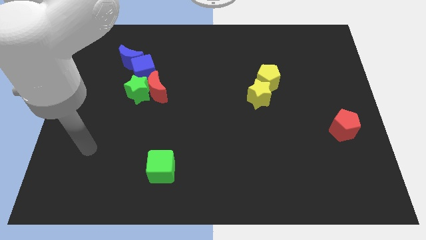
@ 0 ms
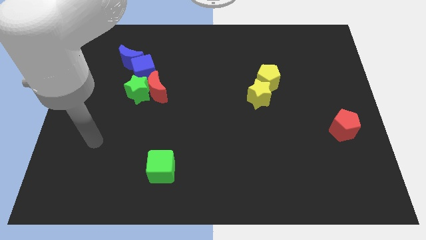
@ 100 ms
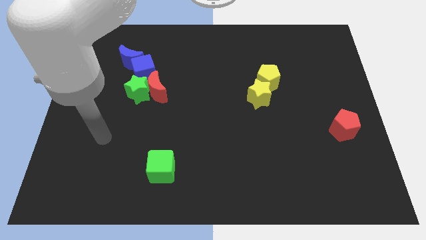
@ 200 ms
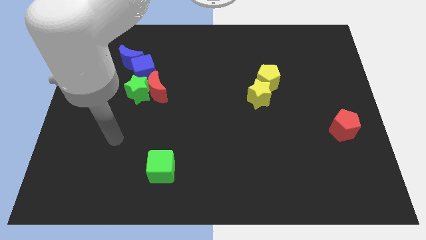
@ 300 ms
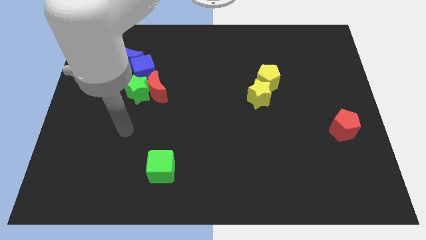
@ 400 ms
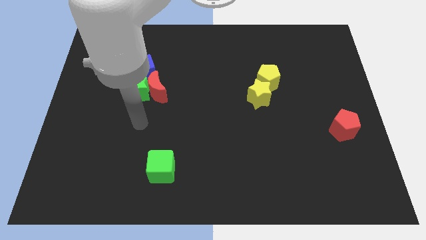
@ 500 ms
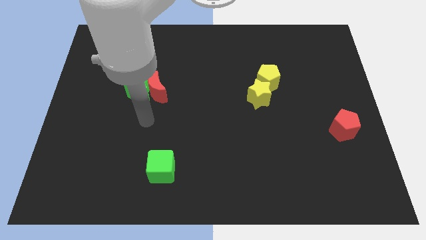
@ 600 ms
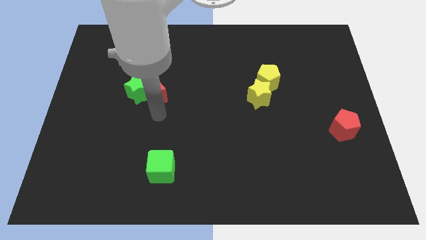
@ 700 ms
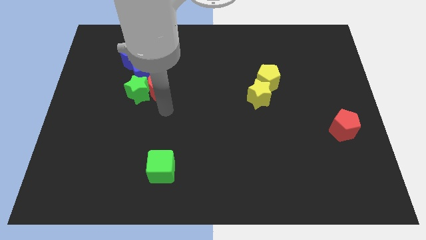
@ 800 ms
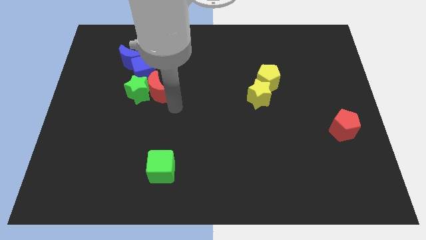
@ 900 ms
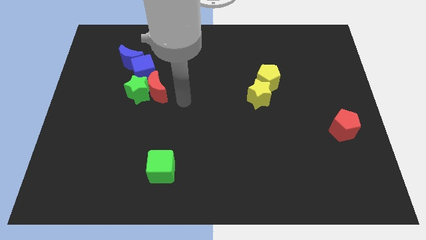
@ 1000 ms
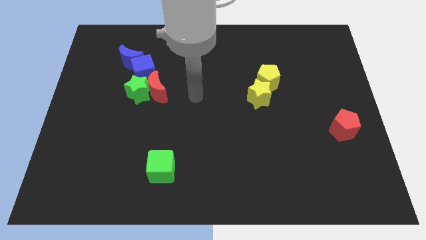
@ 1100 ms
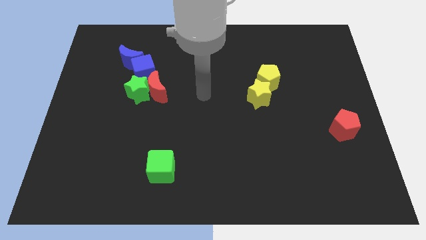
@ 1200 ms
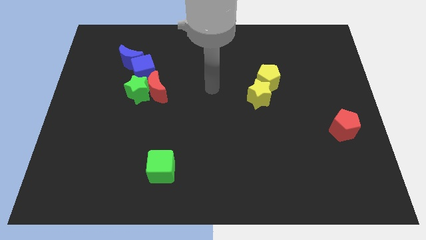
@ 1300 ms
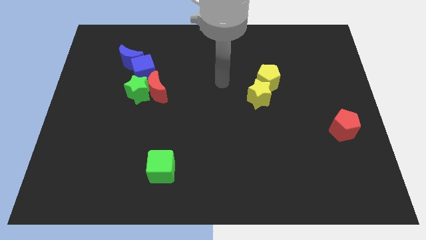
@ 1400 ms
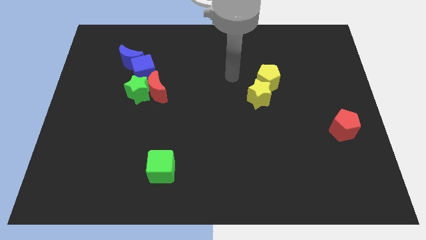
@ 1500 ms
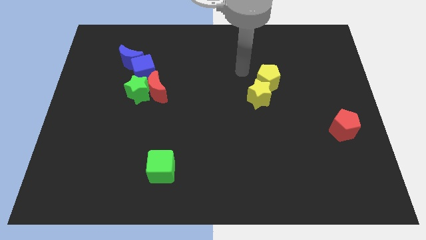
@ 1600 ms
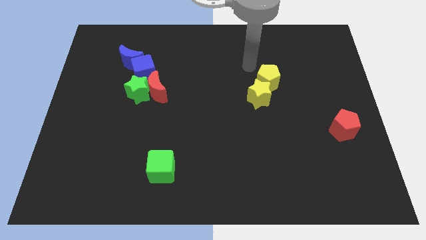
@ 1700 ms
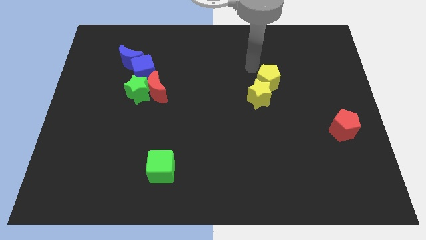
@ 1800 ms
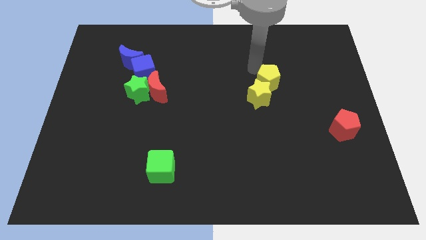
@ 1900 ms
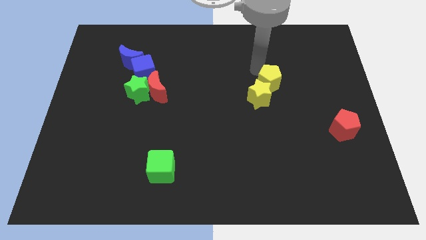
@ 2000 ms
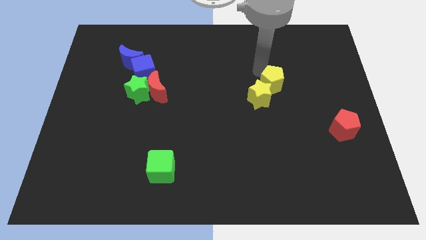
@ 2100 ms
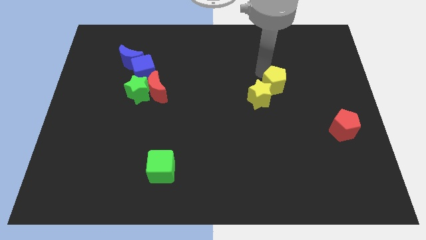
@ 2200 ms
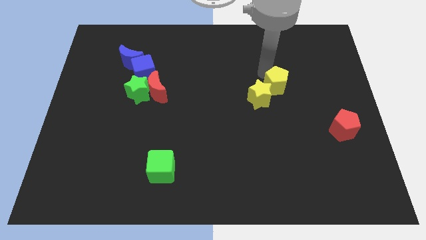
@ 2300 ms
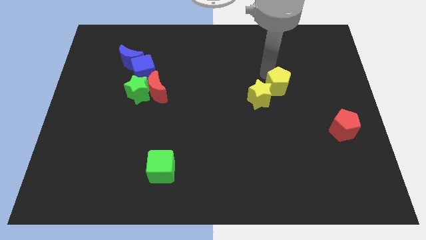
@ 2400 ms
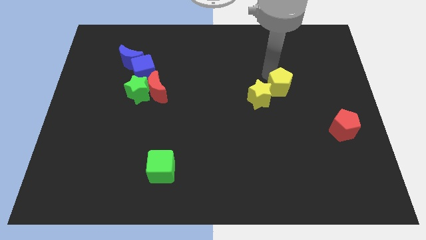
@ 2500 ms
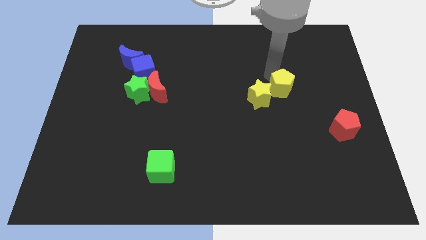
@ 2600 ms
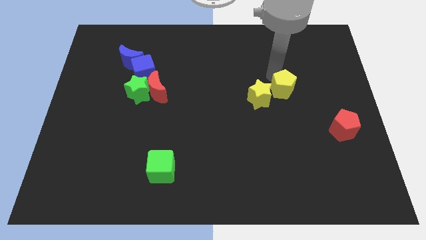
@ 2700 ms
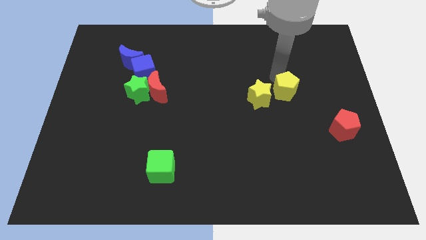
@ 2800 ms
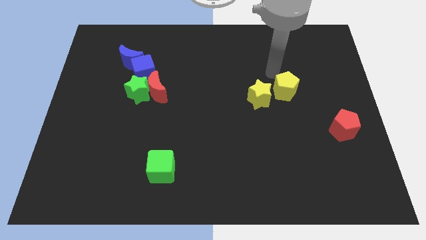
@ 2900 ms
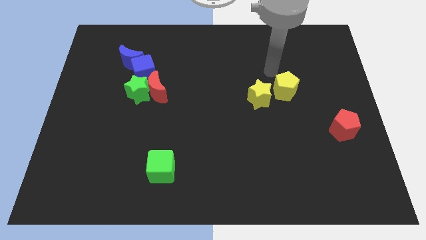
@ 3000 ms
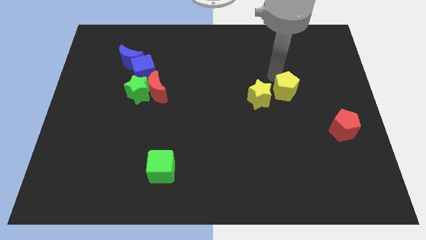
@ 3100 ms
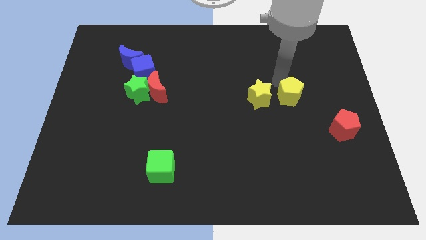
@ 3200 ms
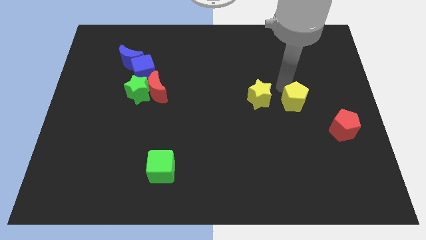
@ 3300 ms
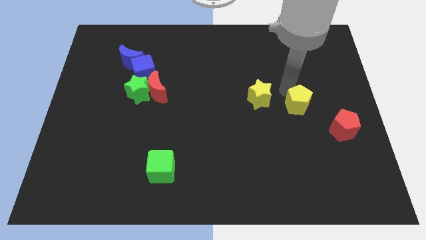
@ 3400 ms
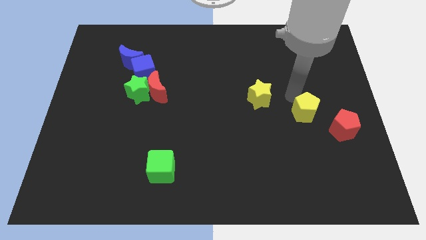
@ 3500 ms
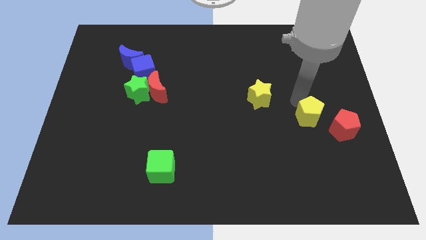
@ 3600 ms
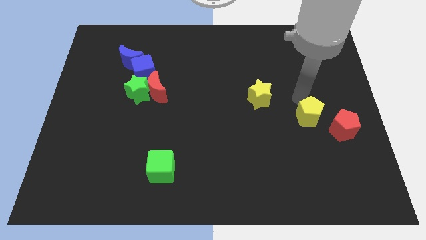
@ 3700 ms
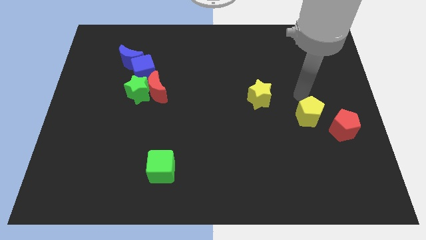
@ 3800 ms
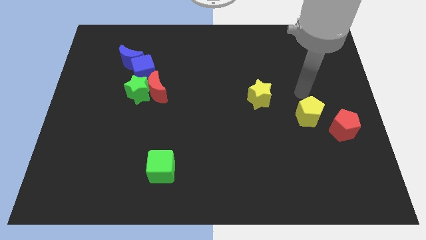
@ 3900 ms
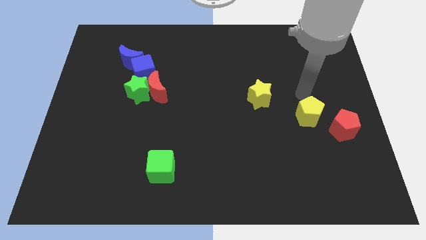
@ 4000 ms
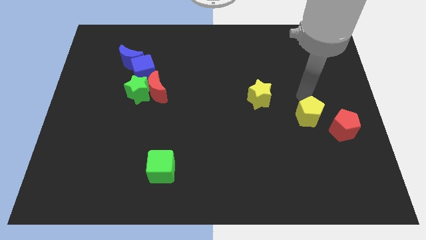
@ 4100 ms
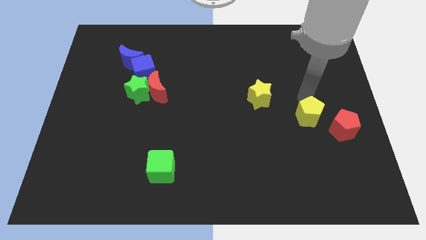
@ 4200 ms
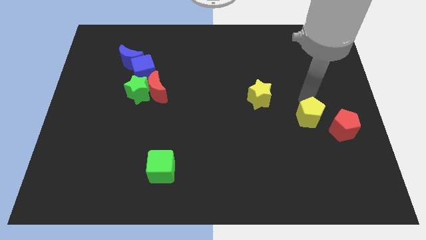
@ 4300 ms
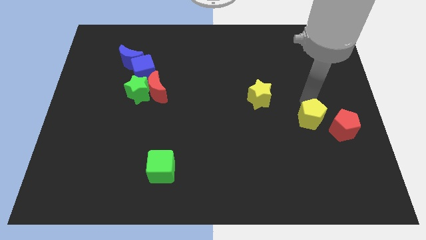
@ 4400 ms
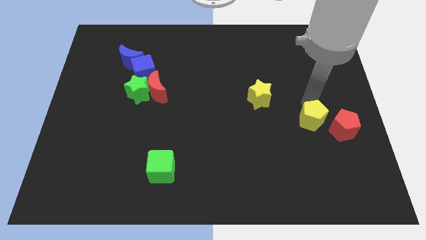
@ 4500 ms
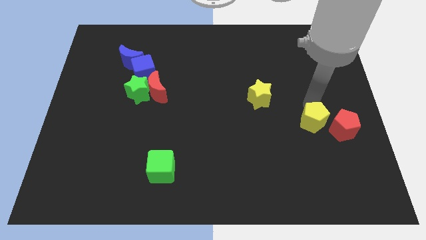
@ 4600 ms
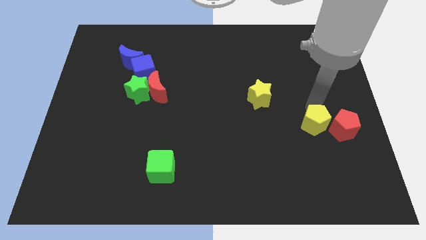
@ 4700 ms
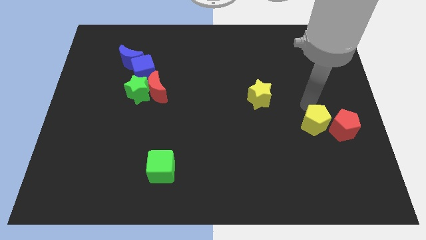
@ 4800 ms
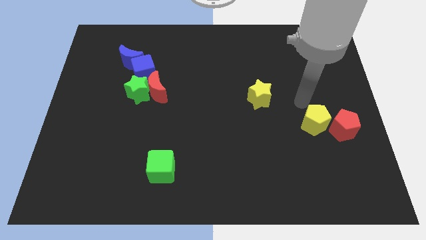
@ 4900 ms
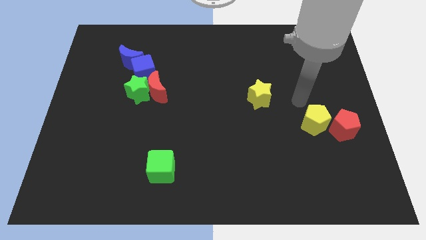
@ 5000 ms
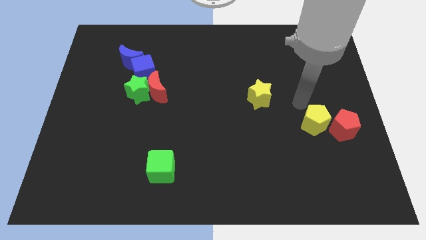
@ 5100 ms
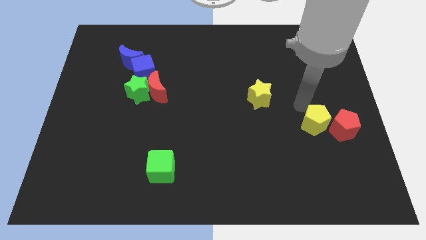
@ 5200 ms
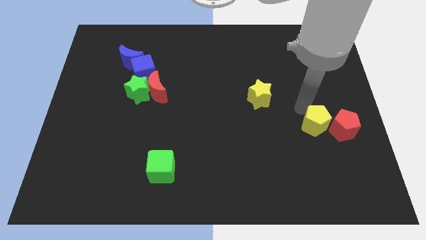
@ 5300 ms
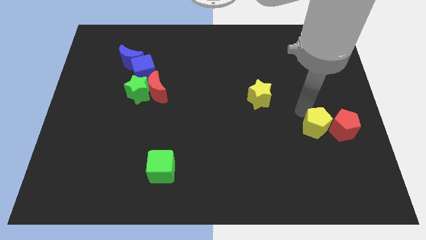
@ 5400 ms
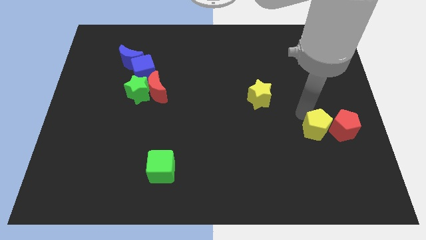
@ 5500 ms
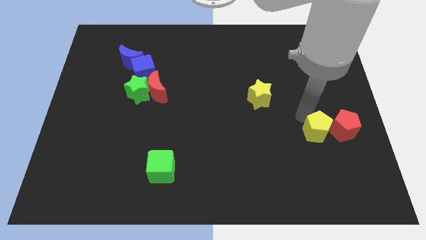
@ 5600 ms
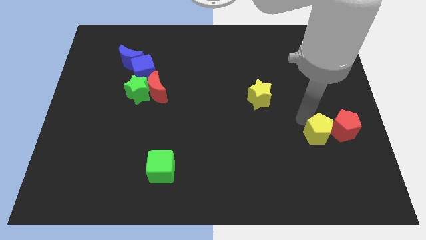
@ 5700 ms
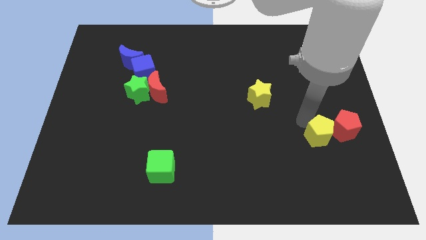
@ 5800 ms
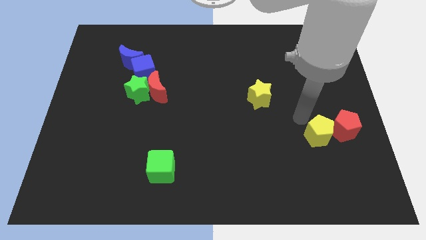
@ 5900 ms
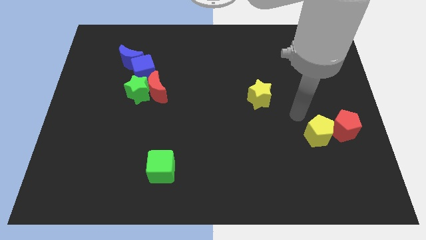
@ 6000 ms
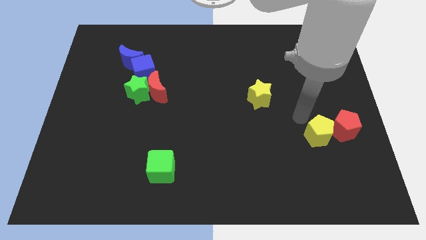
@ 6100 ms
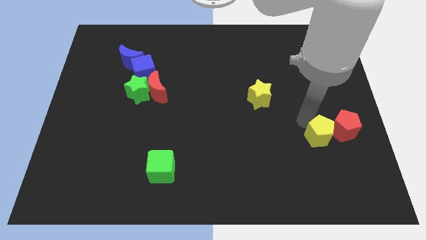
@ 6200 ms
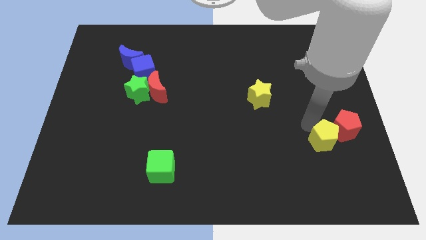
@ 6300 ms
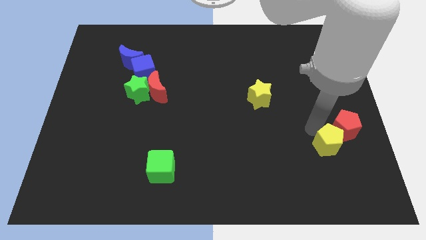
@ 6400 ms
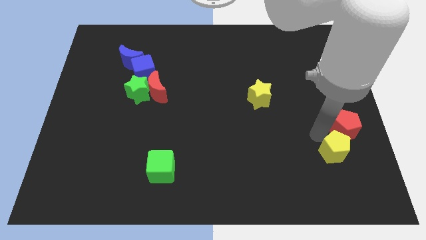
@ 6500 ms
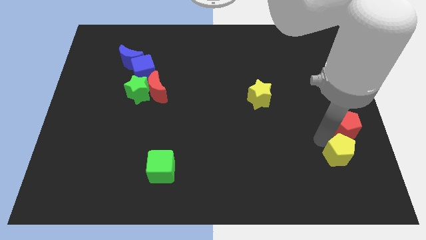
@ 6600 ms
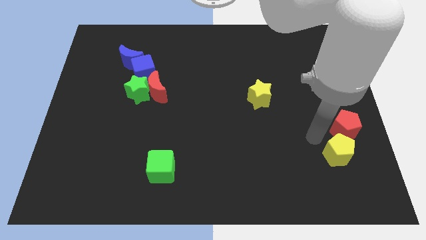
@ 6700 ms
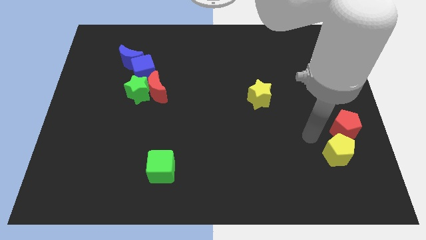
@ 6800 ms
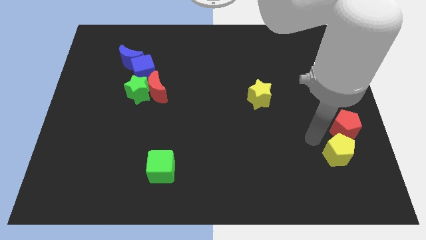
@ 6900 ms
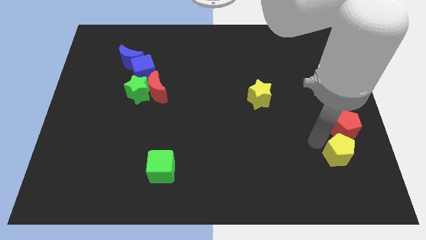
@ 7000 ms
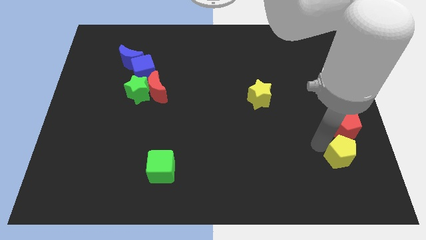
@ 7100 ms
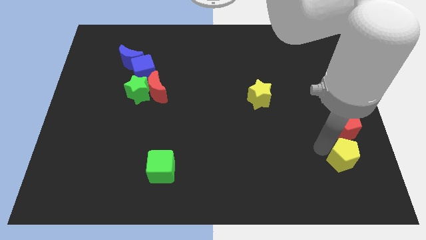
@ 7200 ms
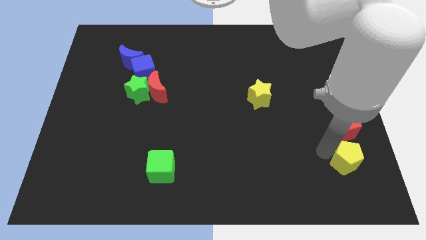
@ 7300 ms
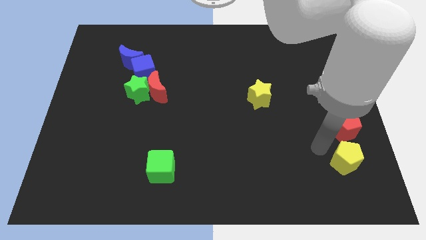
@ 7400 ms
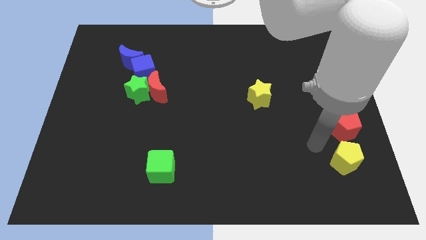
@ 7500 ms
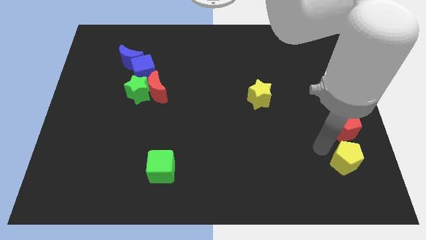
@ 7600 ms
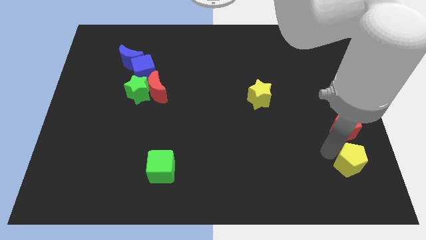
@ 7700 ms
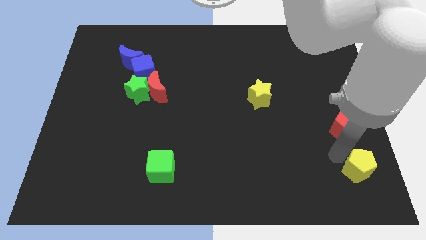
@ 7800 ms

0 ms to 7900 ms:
move the yellow pentagon to the bottom right of the board
